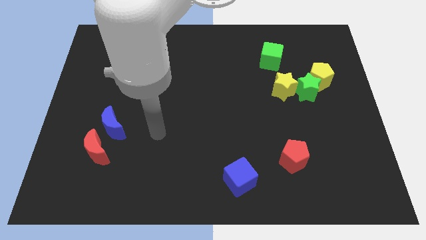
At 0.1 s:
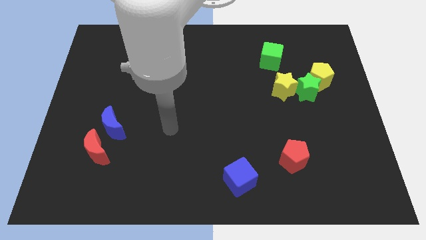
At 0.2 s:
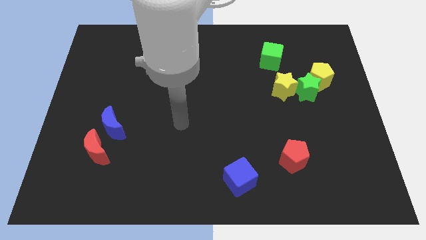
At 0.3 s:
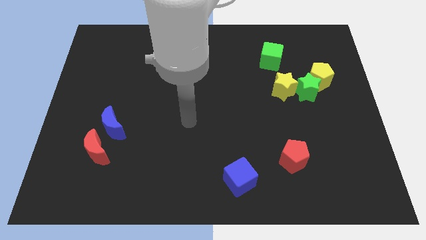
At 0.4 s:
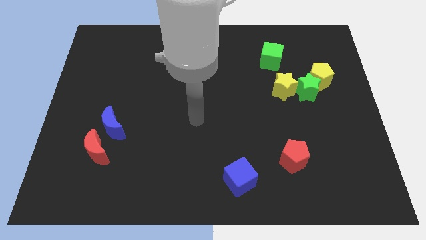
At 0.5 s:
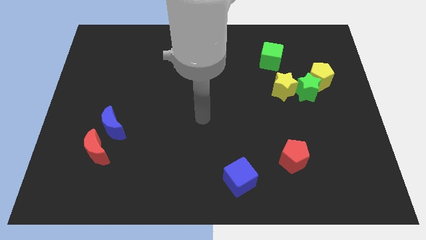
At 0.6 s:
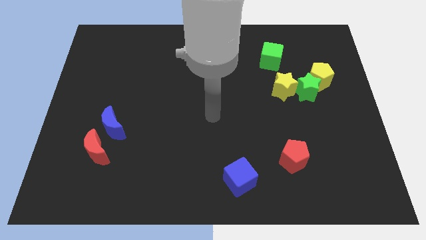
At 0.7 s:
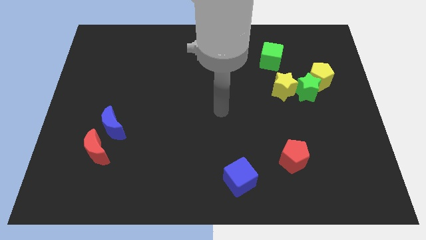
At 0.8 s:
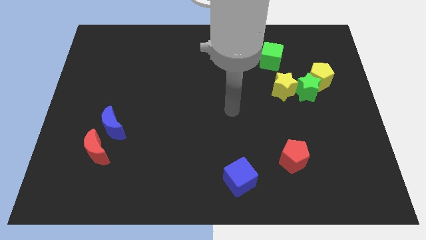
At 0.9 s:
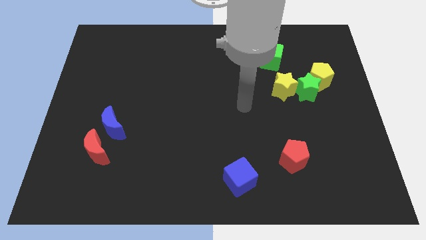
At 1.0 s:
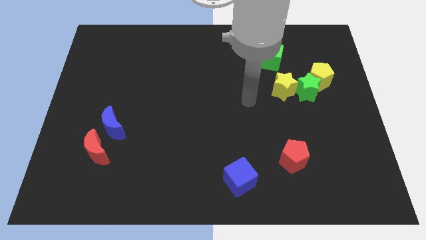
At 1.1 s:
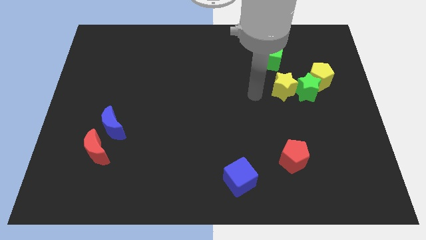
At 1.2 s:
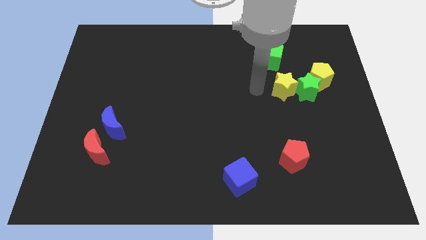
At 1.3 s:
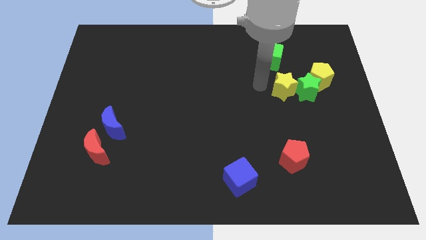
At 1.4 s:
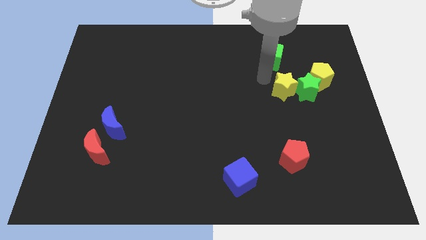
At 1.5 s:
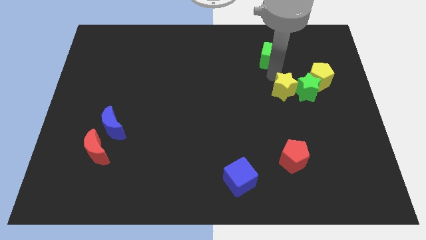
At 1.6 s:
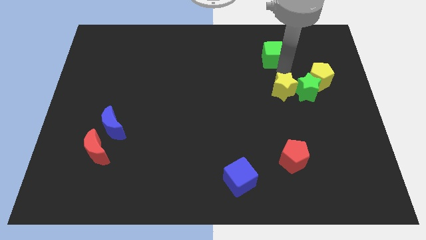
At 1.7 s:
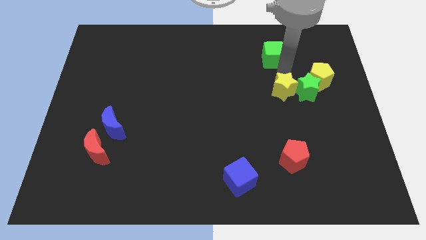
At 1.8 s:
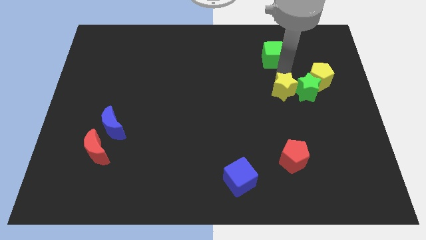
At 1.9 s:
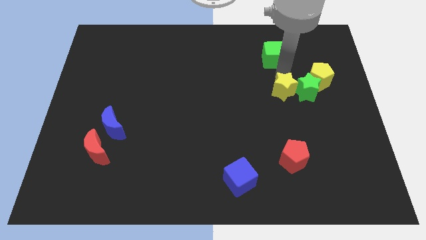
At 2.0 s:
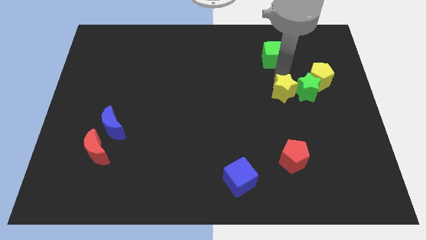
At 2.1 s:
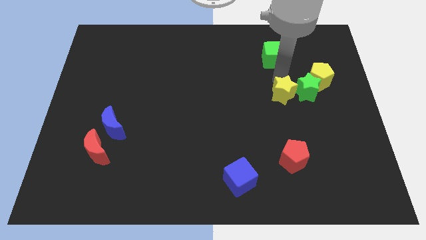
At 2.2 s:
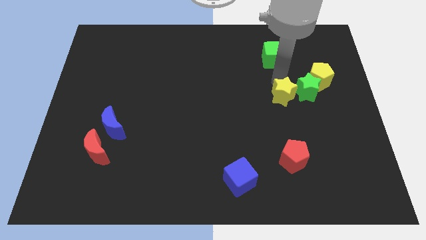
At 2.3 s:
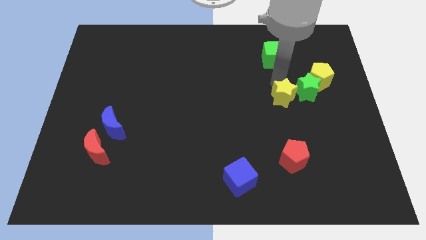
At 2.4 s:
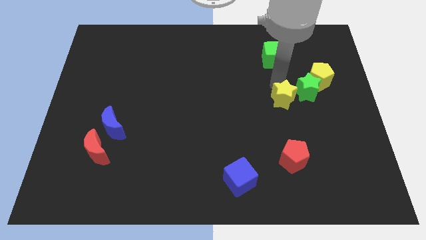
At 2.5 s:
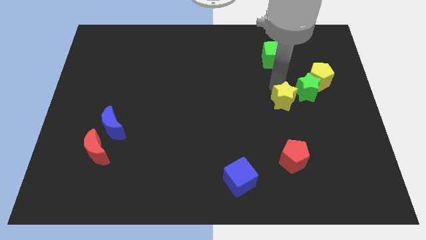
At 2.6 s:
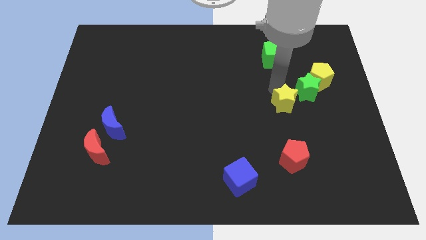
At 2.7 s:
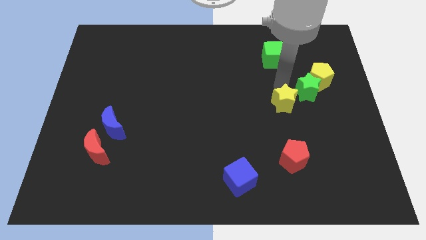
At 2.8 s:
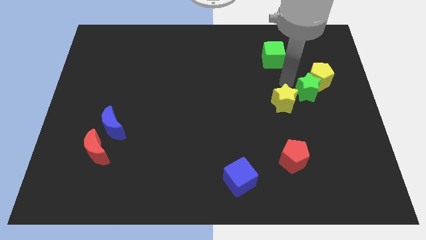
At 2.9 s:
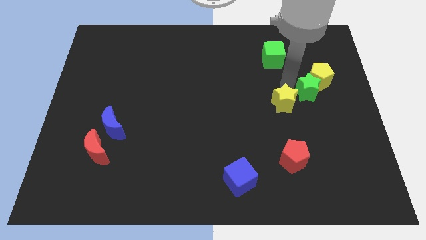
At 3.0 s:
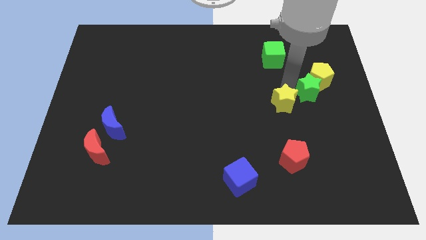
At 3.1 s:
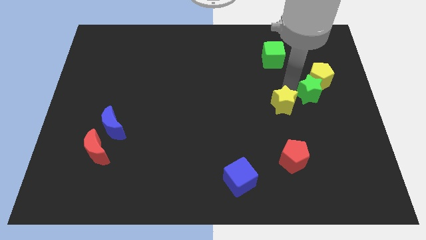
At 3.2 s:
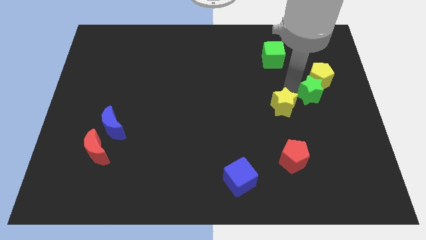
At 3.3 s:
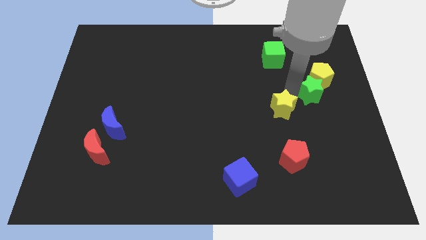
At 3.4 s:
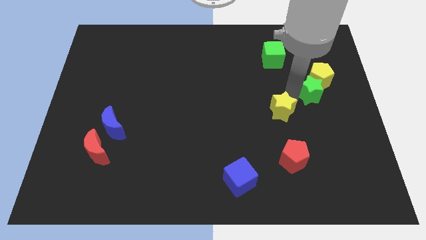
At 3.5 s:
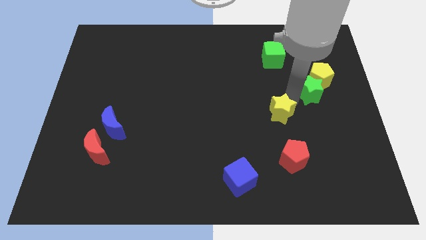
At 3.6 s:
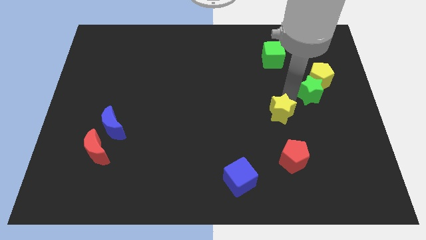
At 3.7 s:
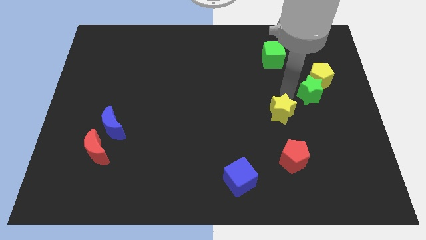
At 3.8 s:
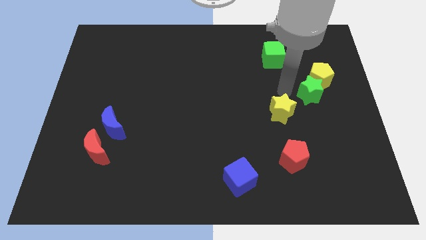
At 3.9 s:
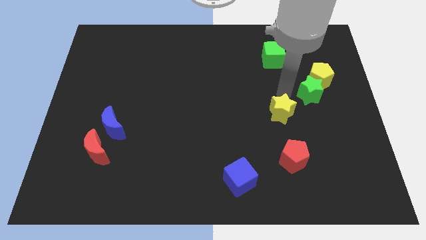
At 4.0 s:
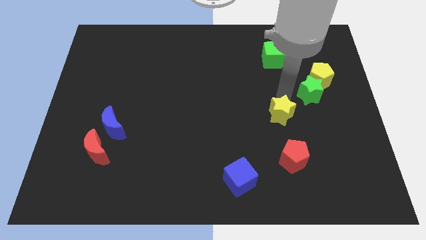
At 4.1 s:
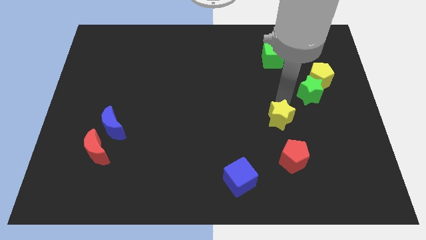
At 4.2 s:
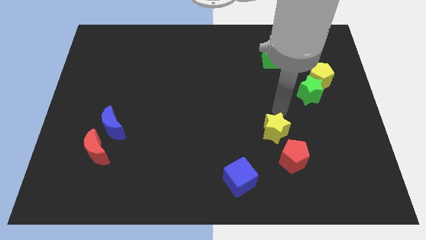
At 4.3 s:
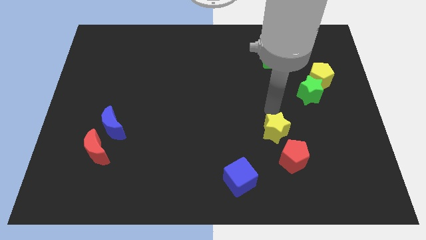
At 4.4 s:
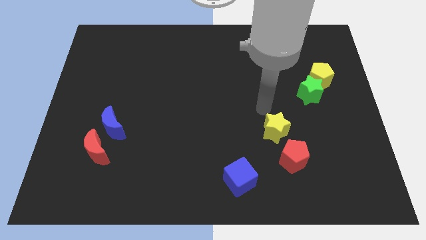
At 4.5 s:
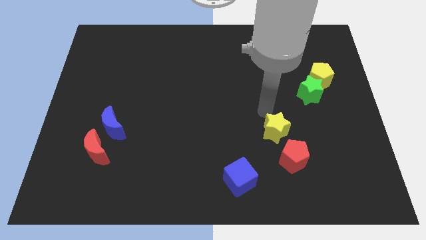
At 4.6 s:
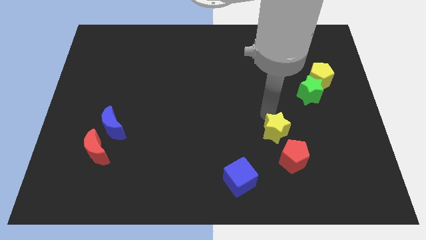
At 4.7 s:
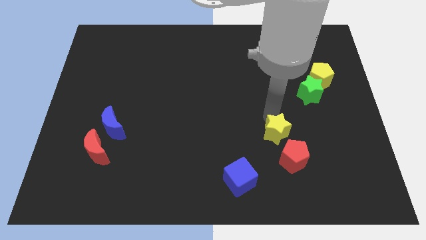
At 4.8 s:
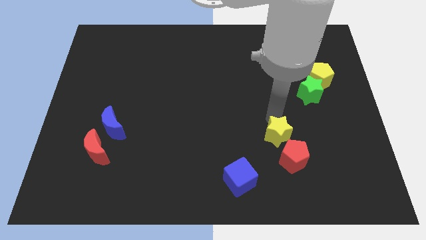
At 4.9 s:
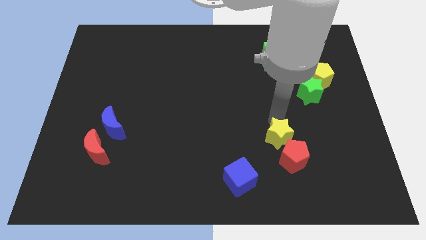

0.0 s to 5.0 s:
move the yellow star to the red pentagon

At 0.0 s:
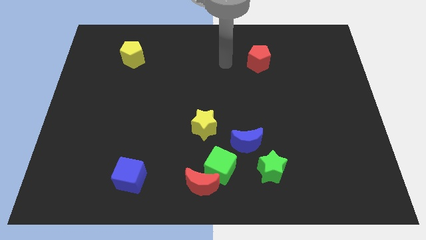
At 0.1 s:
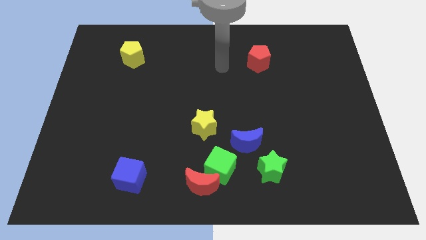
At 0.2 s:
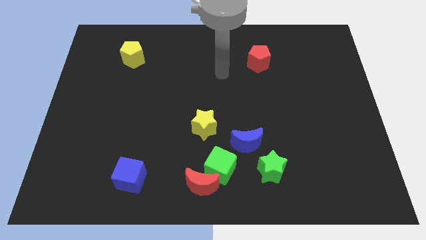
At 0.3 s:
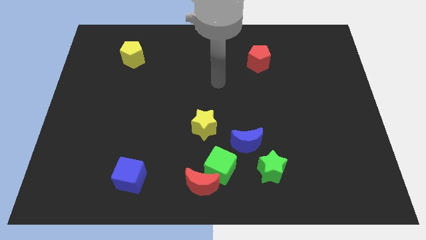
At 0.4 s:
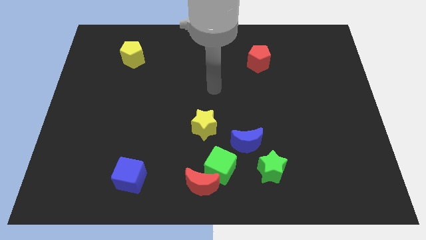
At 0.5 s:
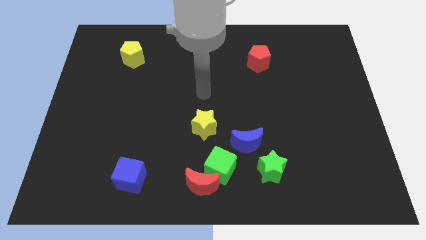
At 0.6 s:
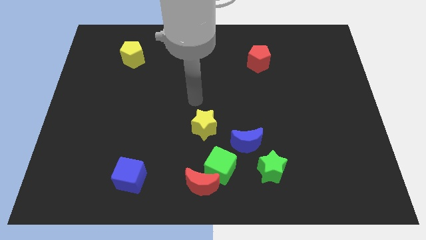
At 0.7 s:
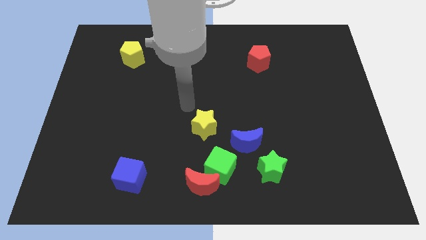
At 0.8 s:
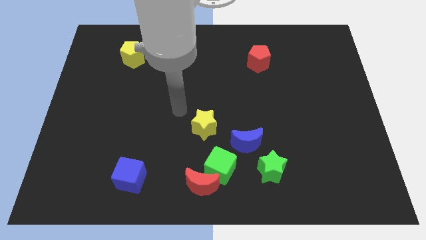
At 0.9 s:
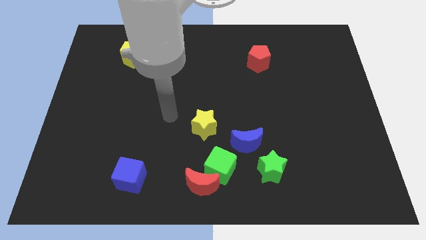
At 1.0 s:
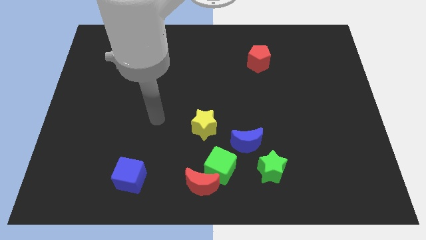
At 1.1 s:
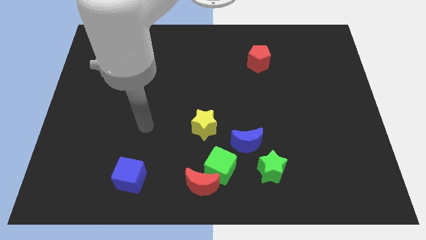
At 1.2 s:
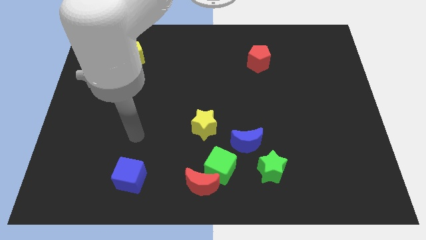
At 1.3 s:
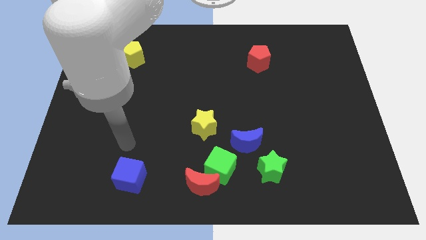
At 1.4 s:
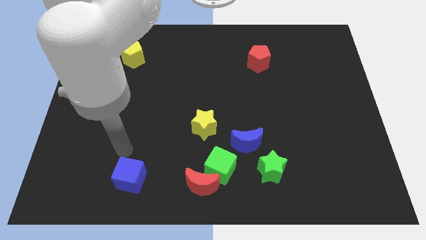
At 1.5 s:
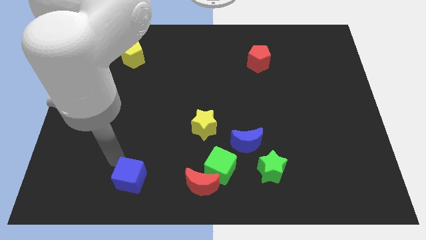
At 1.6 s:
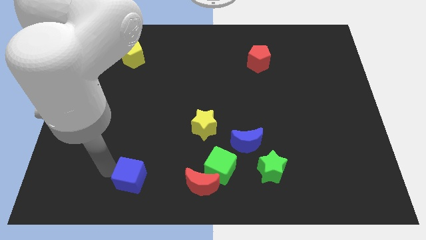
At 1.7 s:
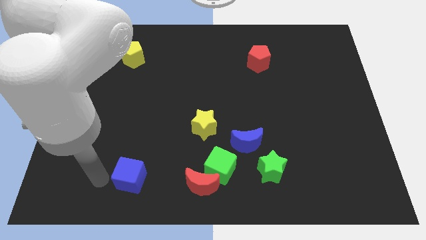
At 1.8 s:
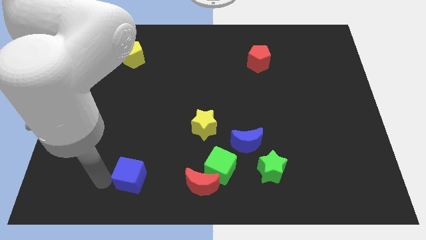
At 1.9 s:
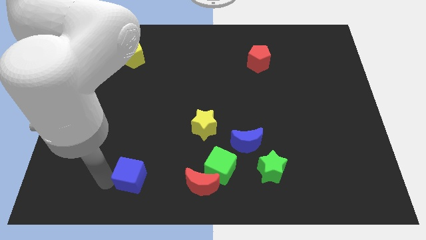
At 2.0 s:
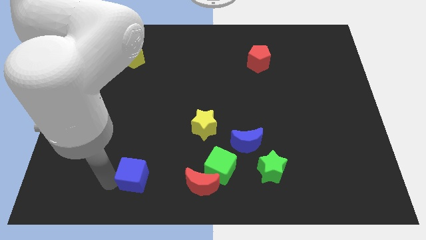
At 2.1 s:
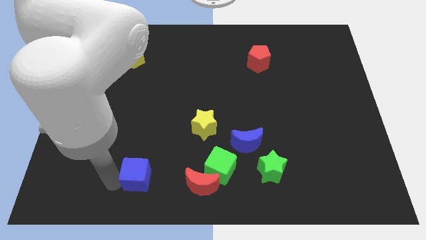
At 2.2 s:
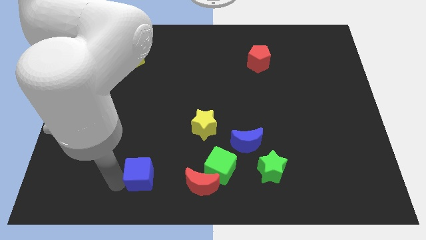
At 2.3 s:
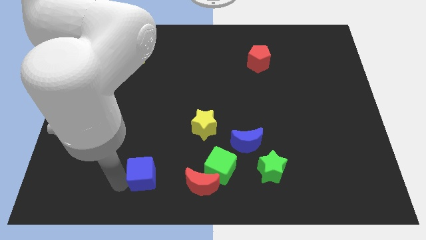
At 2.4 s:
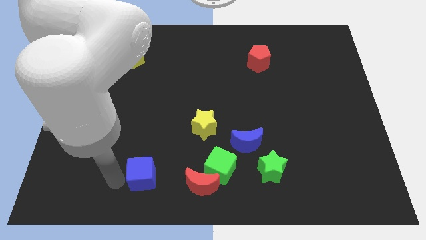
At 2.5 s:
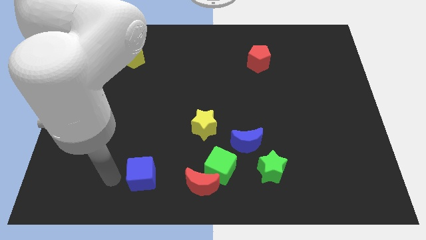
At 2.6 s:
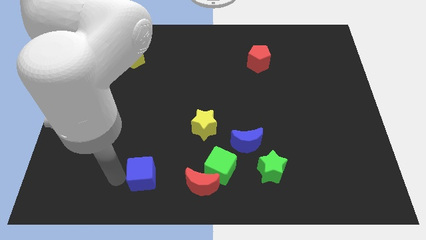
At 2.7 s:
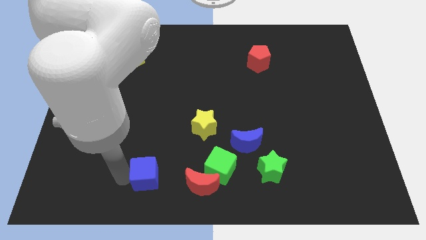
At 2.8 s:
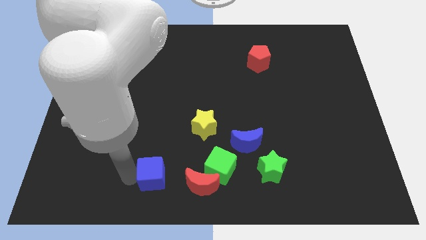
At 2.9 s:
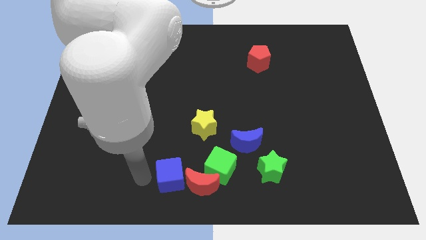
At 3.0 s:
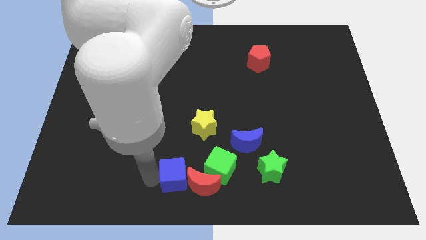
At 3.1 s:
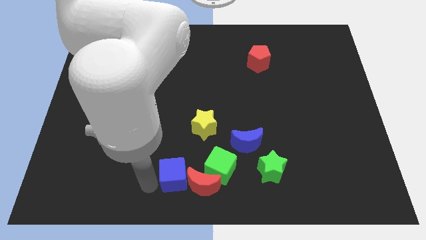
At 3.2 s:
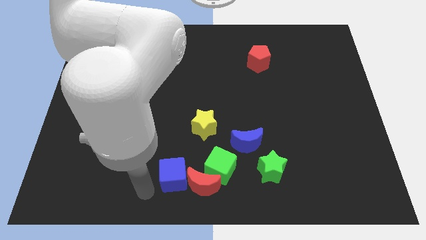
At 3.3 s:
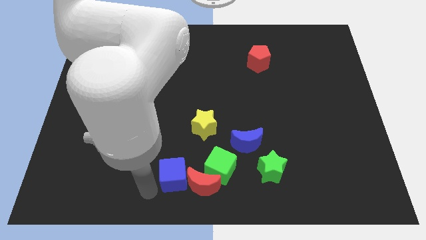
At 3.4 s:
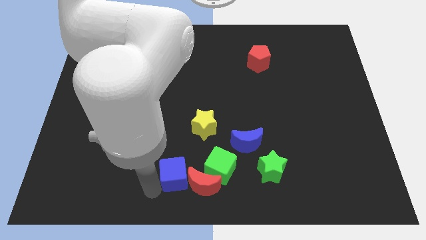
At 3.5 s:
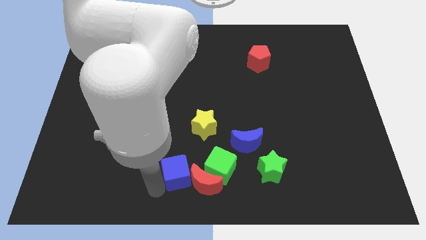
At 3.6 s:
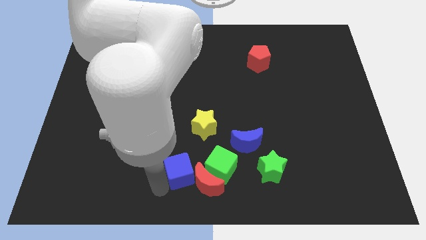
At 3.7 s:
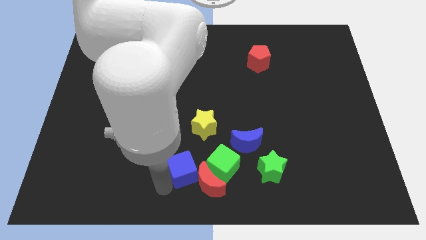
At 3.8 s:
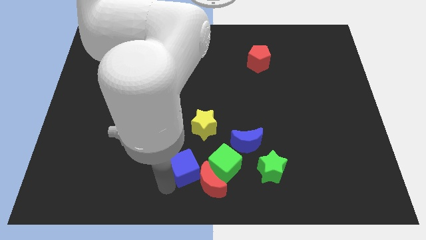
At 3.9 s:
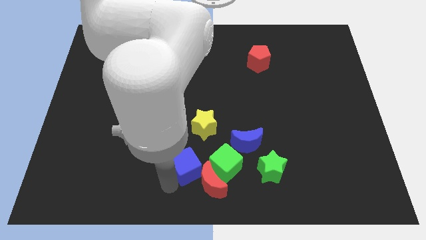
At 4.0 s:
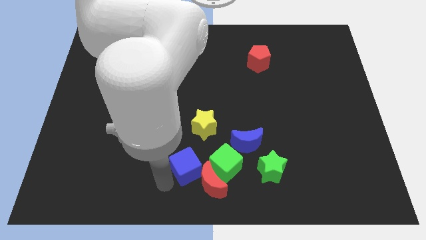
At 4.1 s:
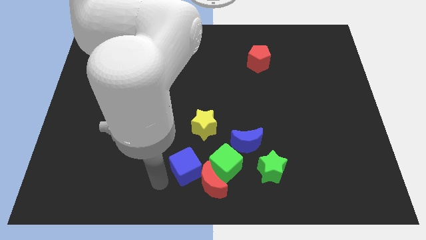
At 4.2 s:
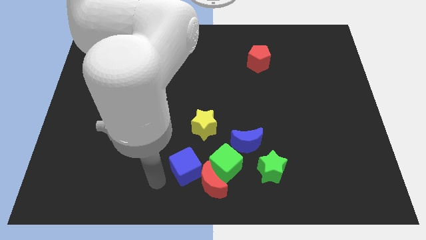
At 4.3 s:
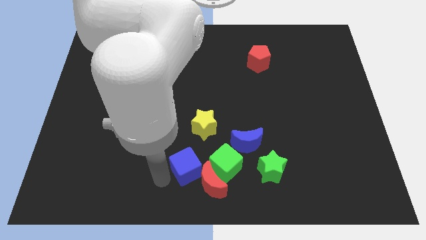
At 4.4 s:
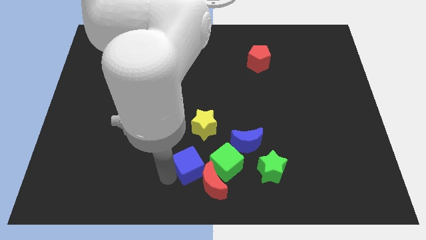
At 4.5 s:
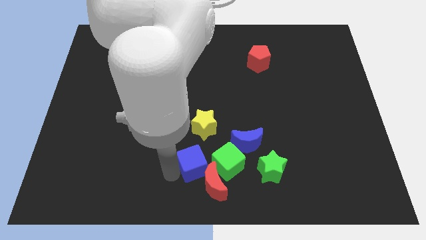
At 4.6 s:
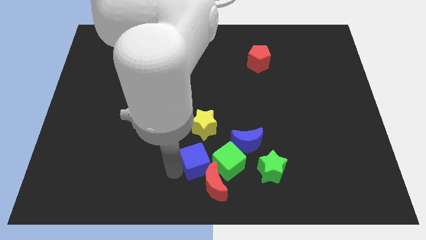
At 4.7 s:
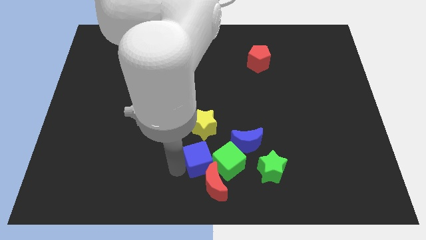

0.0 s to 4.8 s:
push the blue cube next to the green cube
